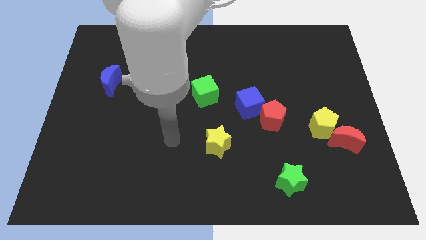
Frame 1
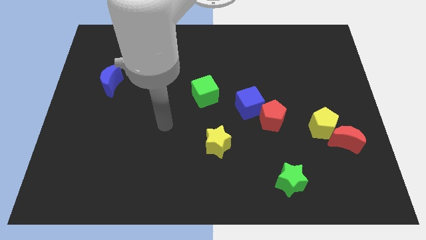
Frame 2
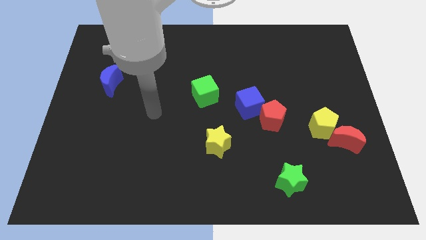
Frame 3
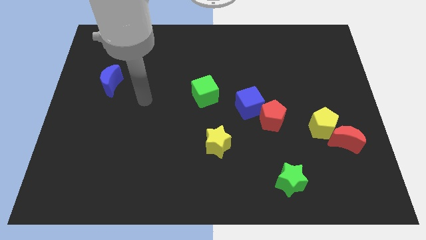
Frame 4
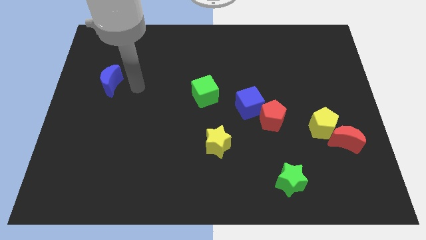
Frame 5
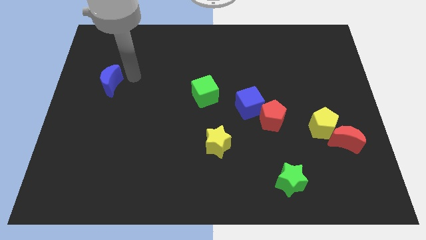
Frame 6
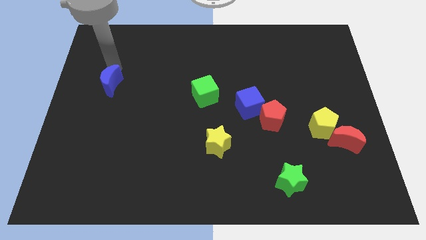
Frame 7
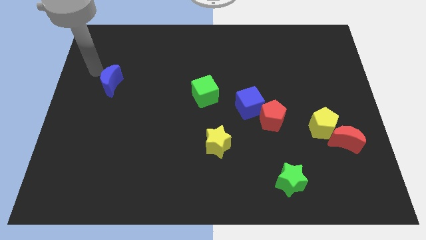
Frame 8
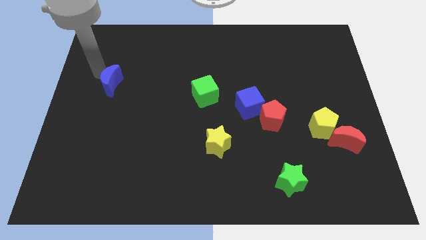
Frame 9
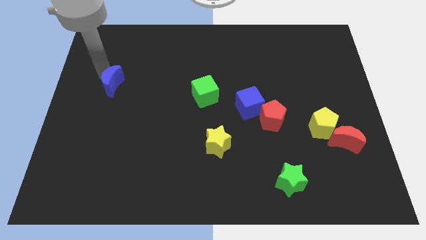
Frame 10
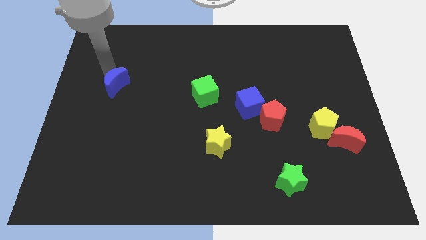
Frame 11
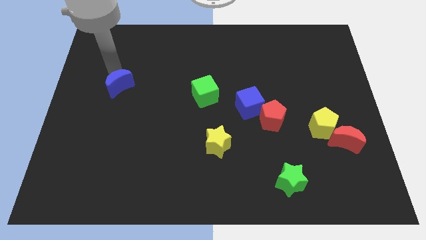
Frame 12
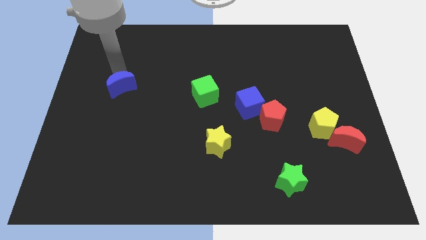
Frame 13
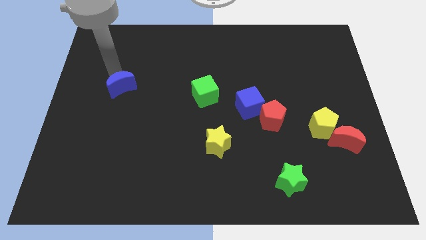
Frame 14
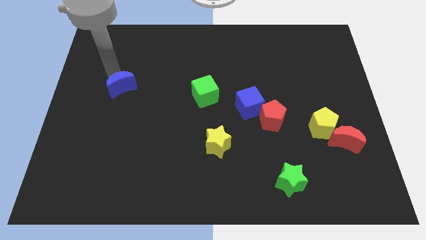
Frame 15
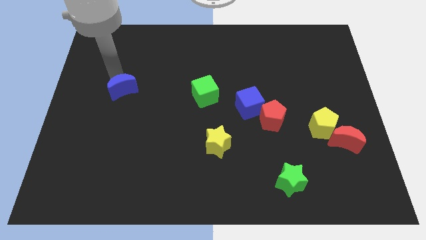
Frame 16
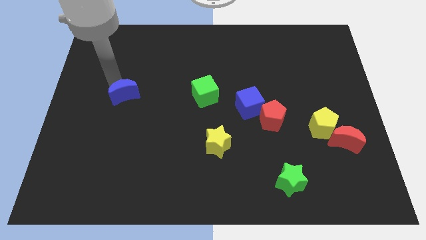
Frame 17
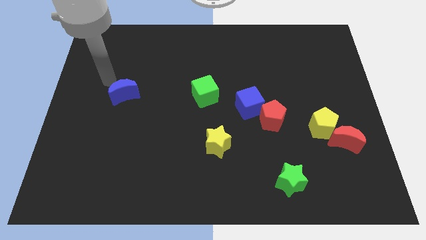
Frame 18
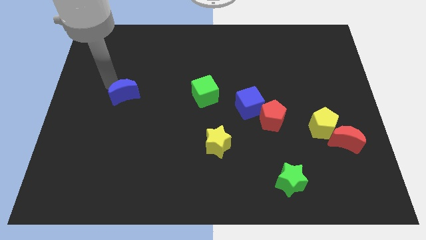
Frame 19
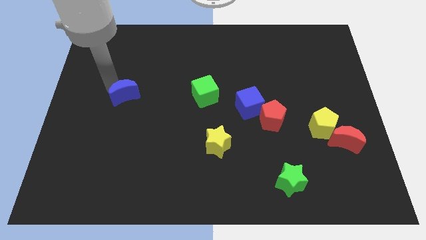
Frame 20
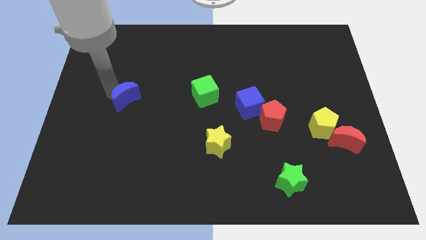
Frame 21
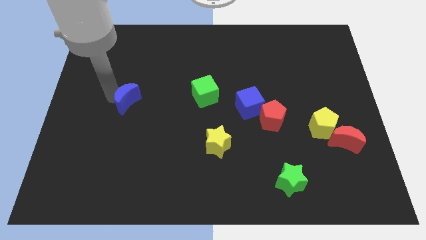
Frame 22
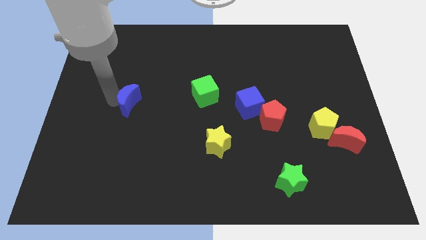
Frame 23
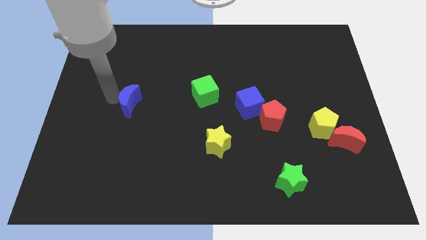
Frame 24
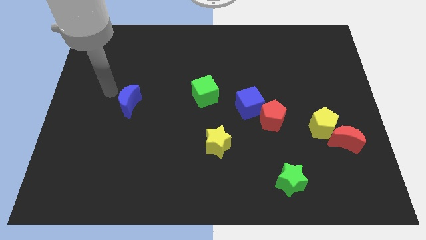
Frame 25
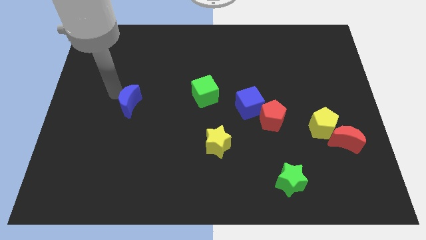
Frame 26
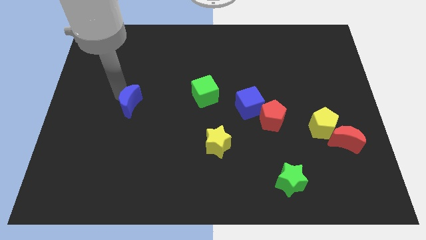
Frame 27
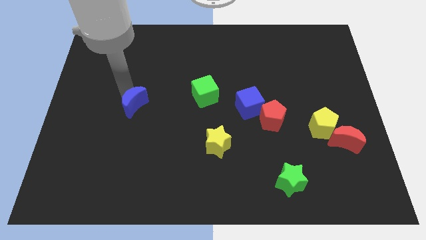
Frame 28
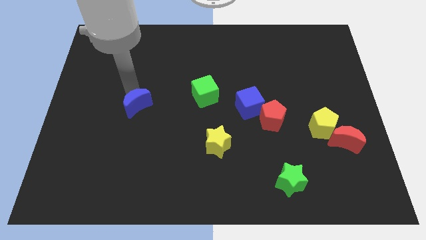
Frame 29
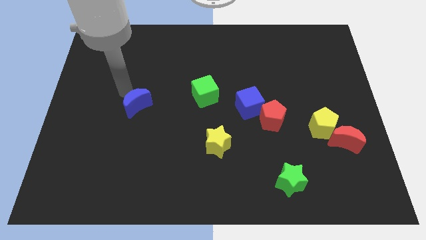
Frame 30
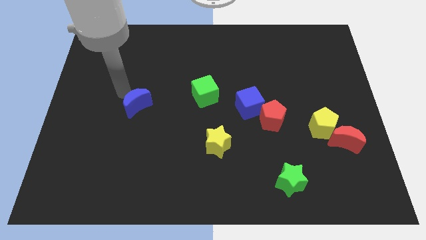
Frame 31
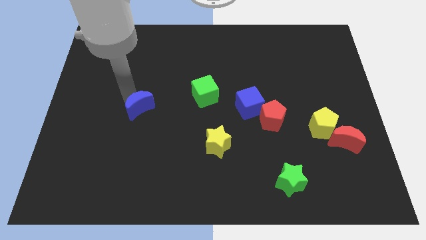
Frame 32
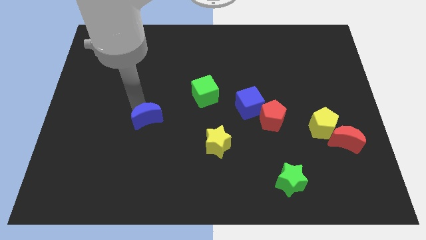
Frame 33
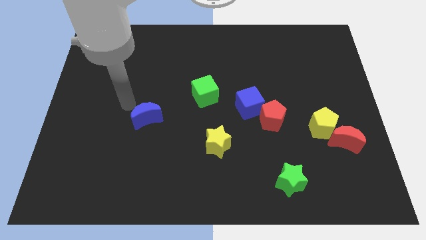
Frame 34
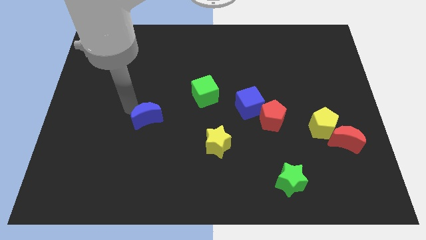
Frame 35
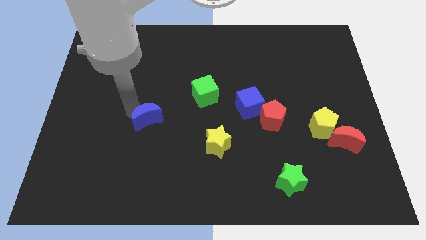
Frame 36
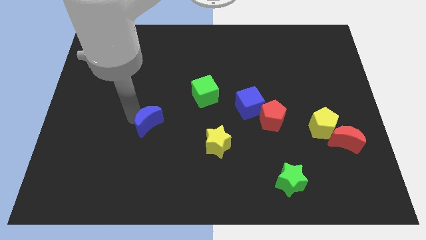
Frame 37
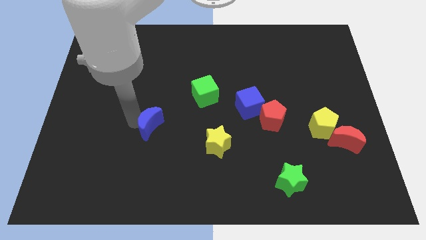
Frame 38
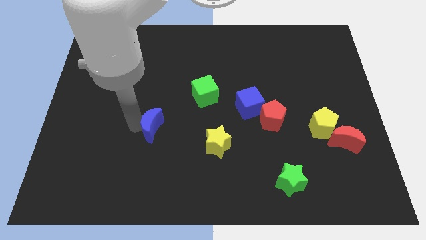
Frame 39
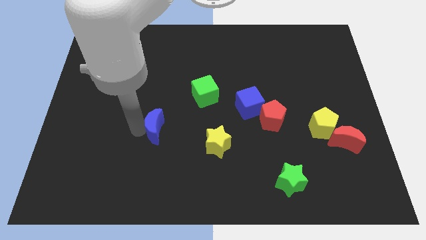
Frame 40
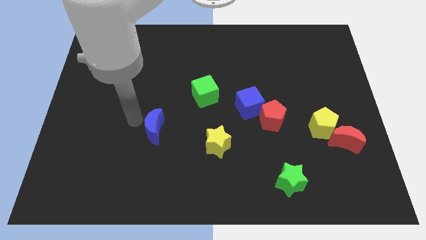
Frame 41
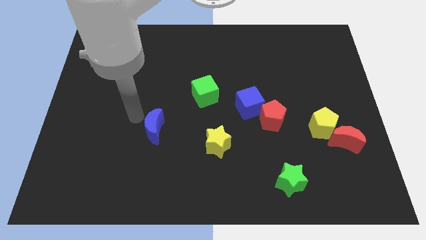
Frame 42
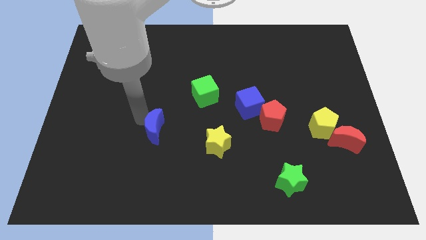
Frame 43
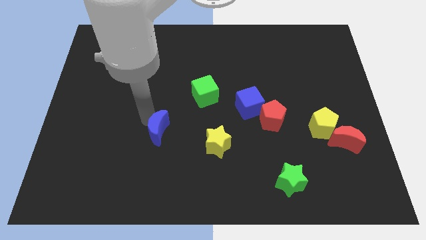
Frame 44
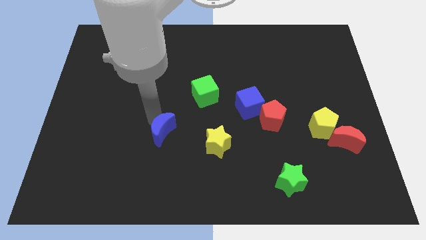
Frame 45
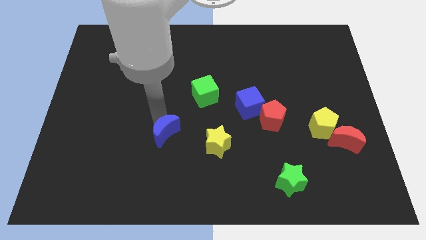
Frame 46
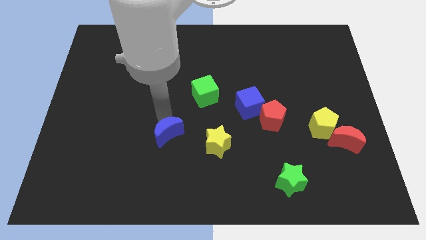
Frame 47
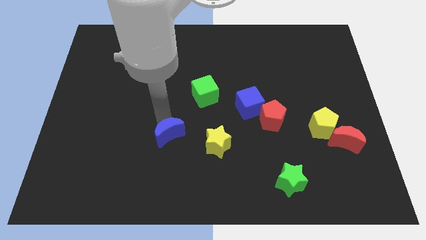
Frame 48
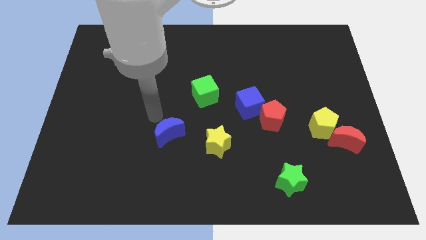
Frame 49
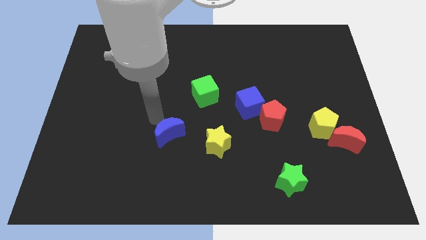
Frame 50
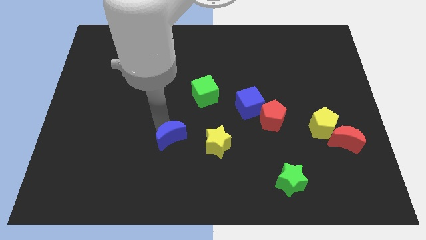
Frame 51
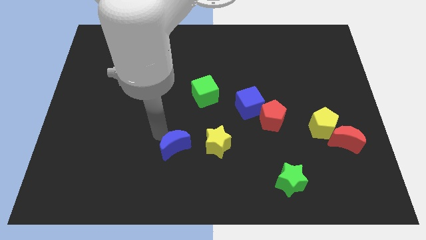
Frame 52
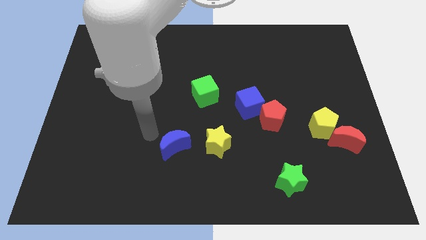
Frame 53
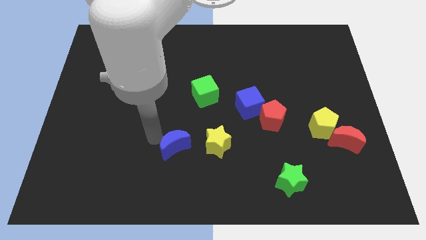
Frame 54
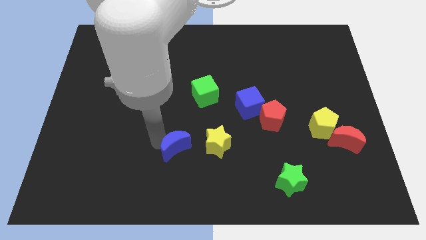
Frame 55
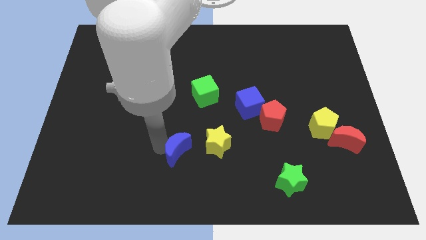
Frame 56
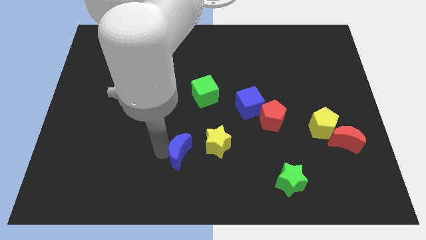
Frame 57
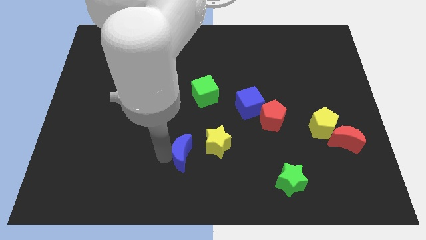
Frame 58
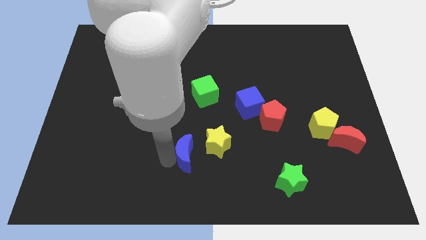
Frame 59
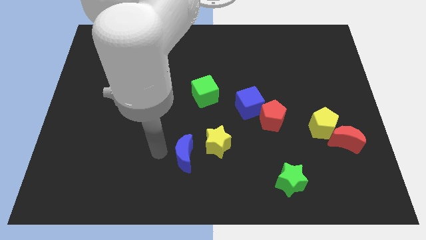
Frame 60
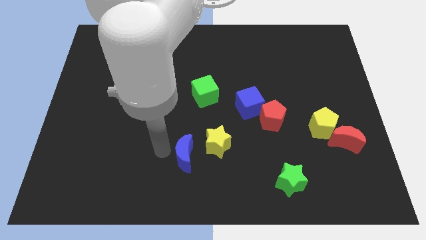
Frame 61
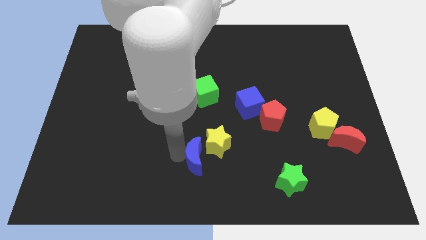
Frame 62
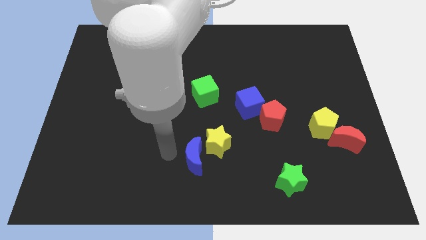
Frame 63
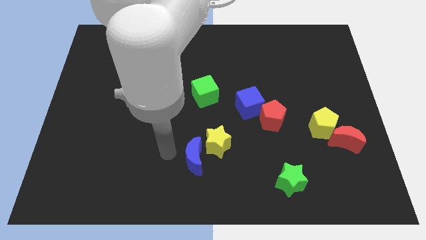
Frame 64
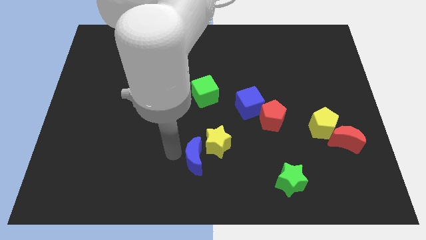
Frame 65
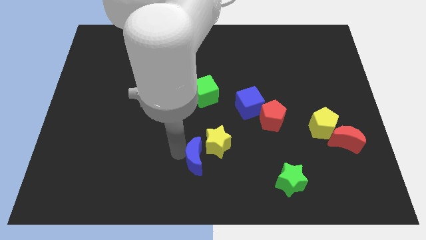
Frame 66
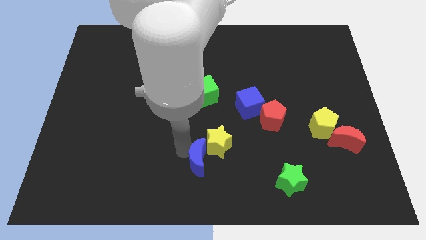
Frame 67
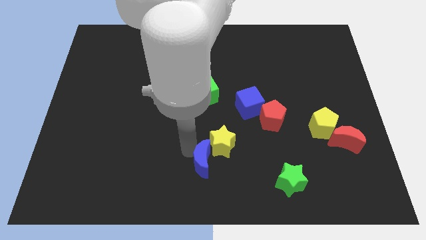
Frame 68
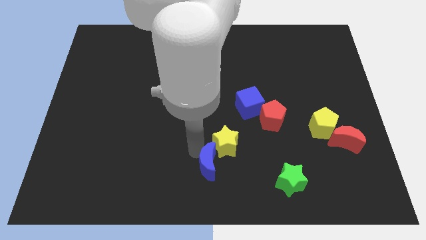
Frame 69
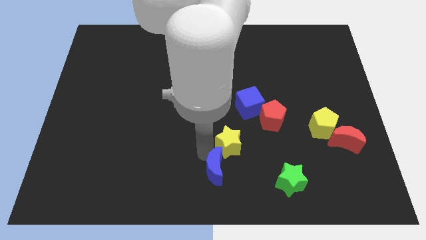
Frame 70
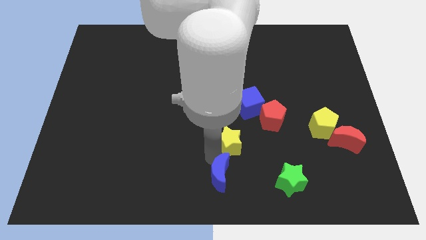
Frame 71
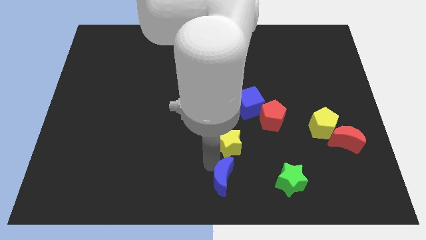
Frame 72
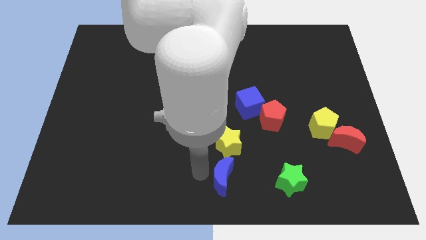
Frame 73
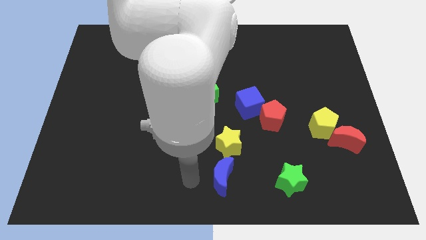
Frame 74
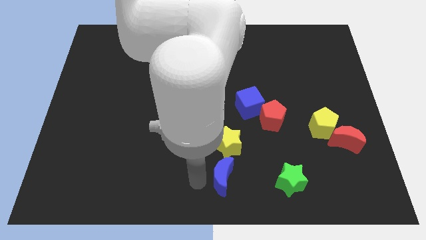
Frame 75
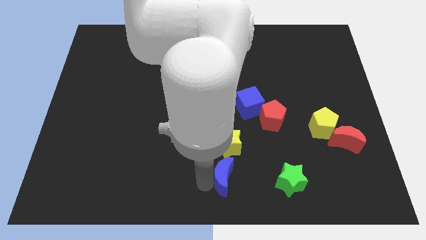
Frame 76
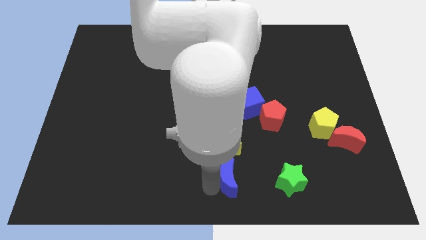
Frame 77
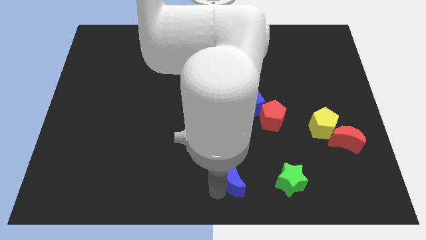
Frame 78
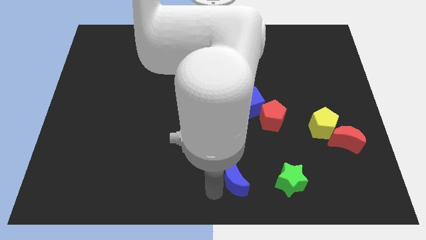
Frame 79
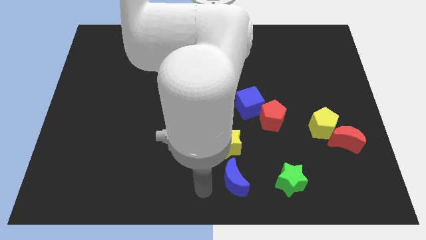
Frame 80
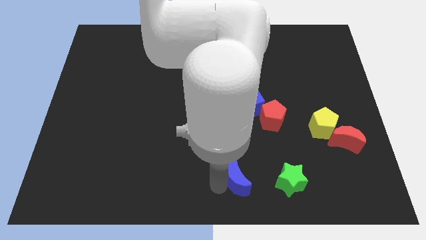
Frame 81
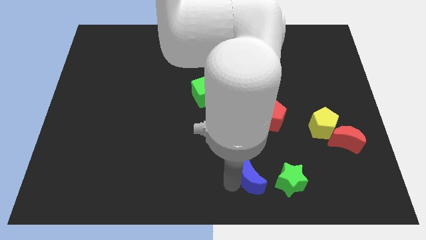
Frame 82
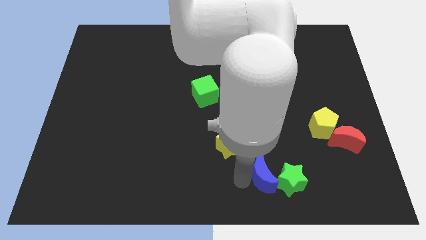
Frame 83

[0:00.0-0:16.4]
move the blue moon next to the green star
